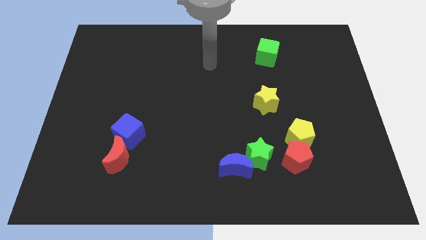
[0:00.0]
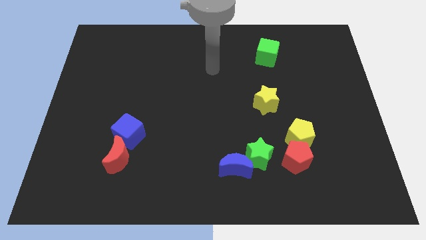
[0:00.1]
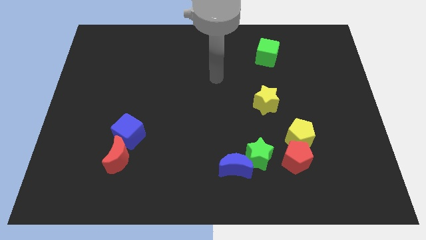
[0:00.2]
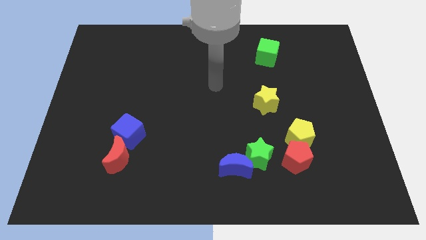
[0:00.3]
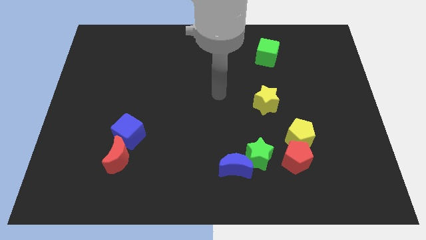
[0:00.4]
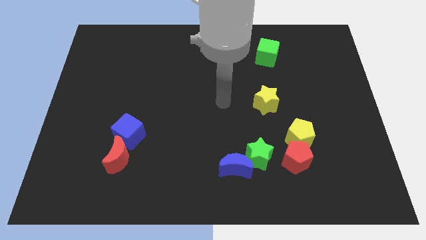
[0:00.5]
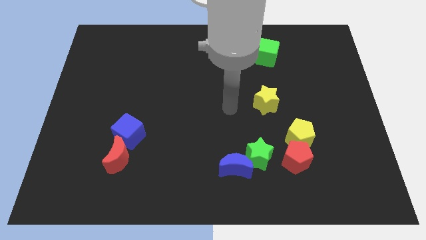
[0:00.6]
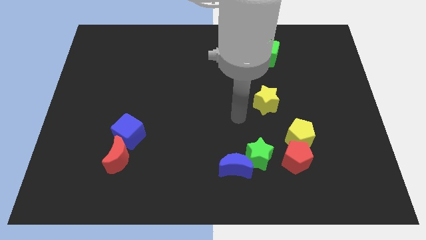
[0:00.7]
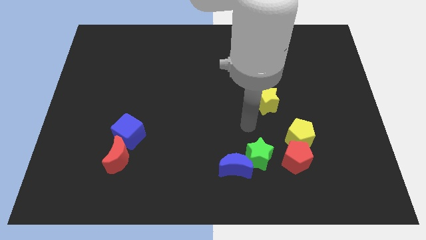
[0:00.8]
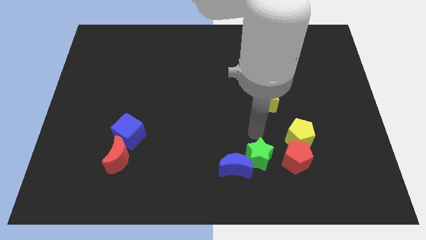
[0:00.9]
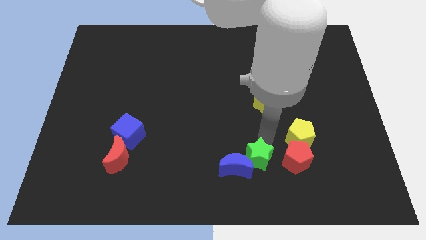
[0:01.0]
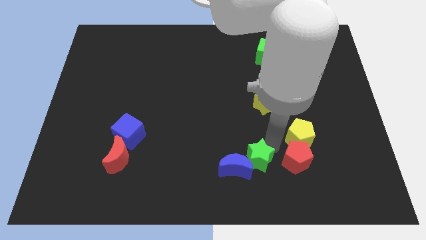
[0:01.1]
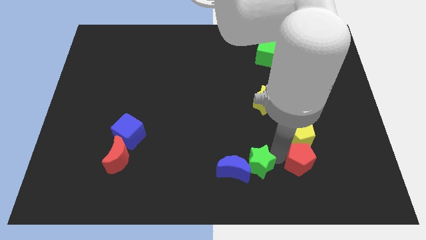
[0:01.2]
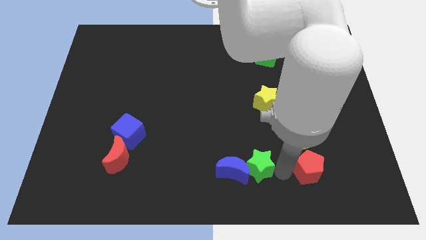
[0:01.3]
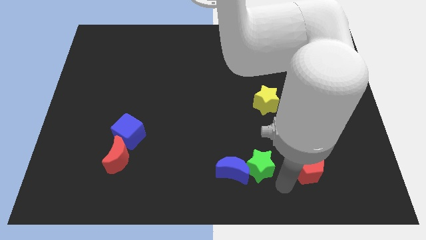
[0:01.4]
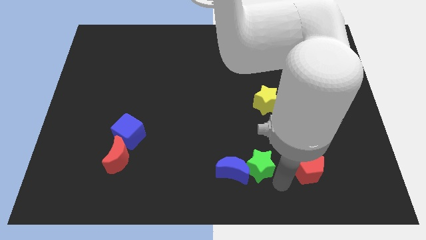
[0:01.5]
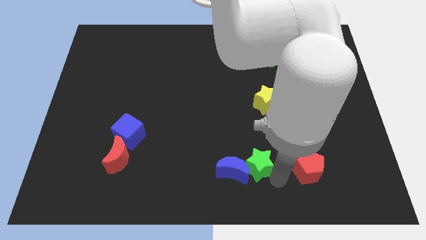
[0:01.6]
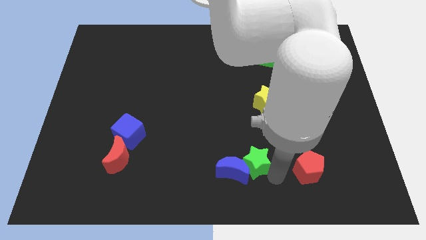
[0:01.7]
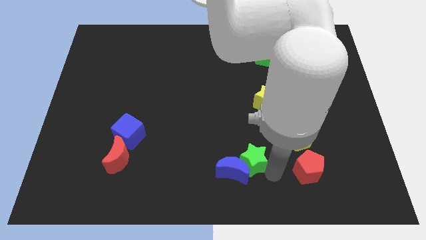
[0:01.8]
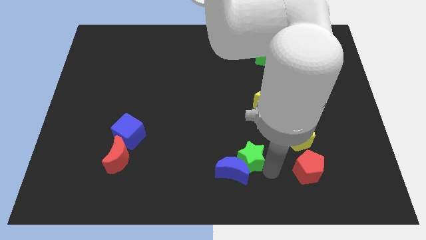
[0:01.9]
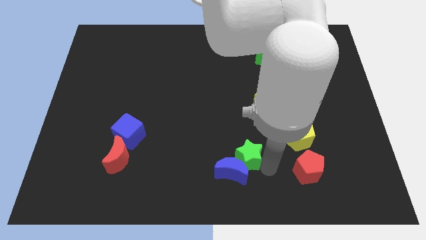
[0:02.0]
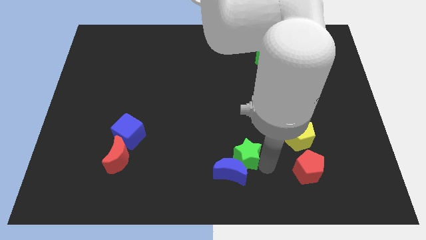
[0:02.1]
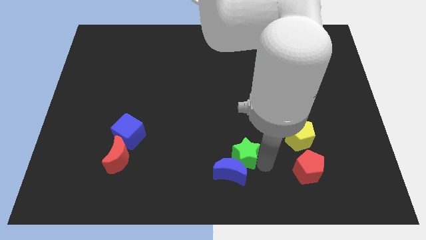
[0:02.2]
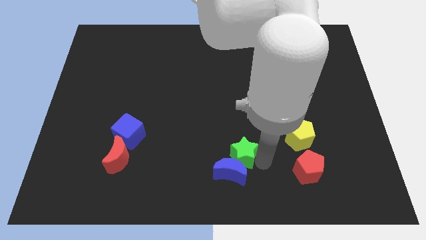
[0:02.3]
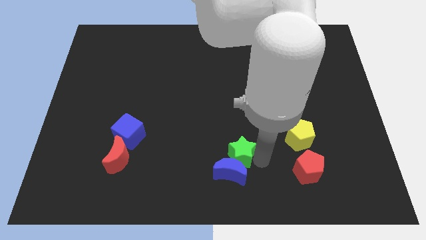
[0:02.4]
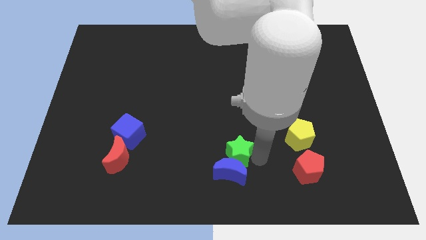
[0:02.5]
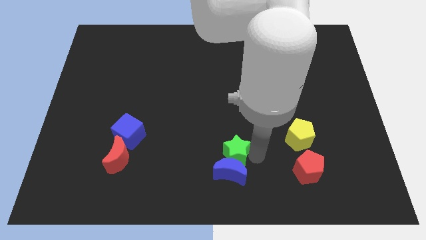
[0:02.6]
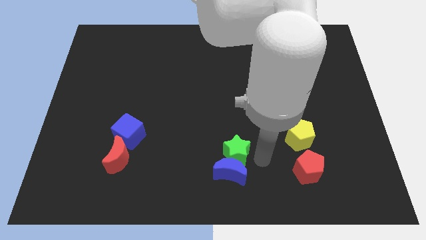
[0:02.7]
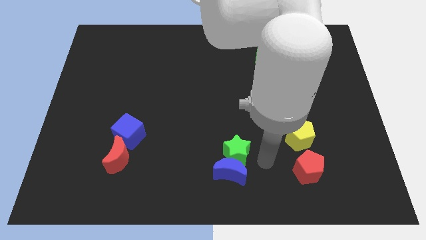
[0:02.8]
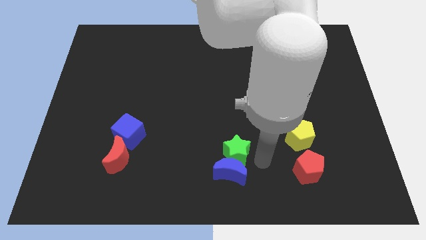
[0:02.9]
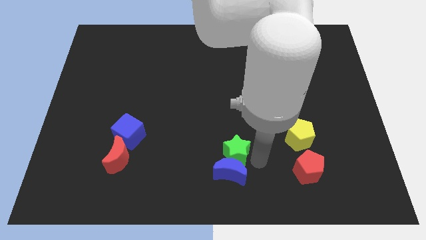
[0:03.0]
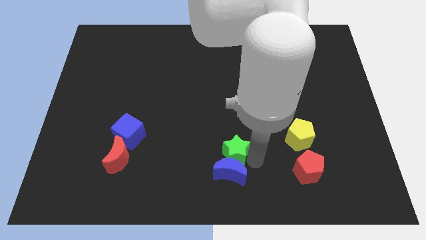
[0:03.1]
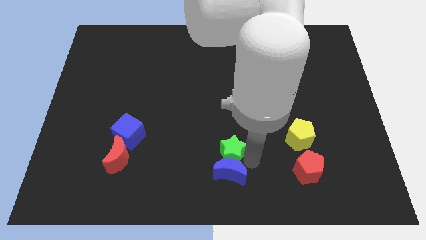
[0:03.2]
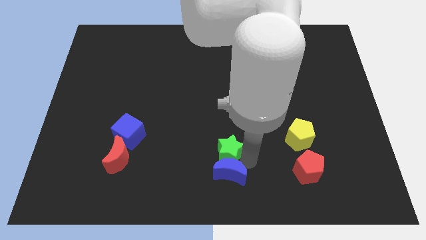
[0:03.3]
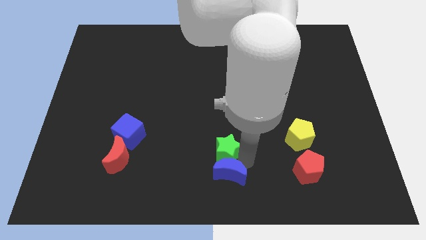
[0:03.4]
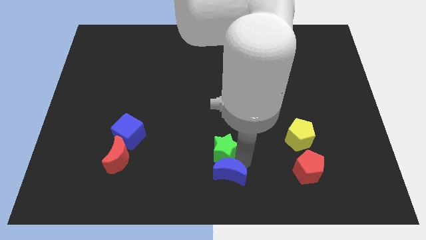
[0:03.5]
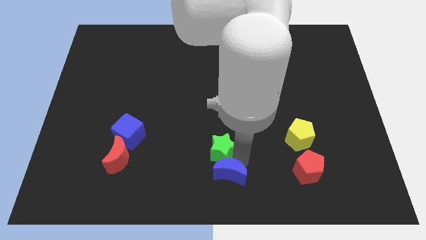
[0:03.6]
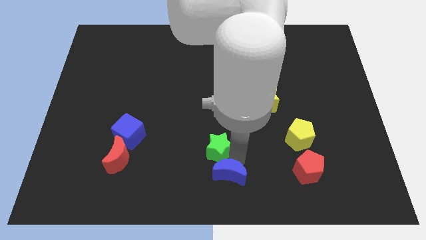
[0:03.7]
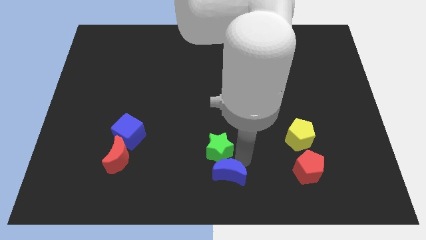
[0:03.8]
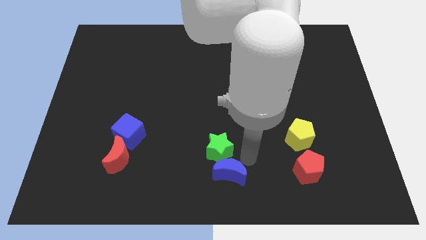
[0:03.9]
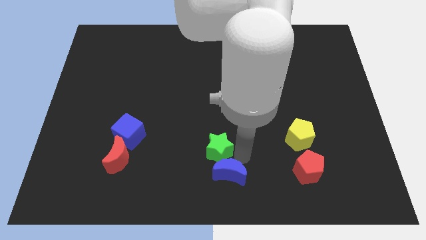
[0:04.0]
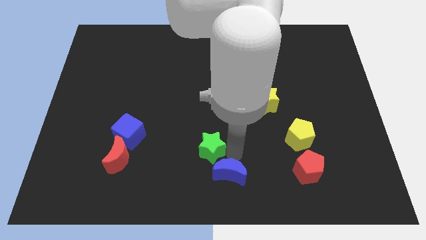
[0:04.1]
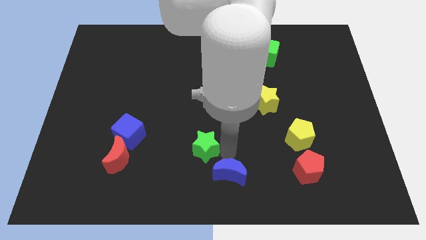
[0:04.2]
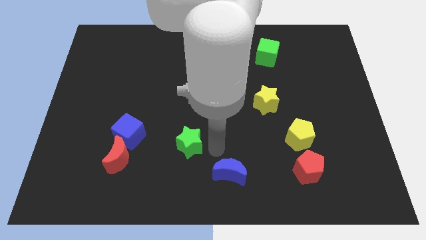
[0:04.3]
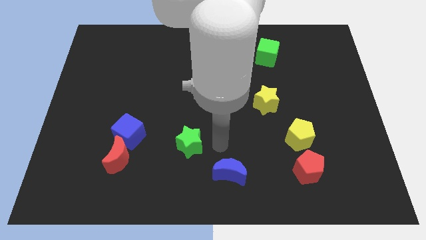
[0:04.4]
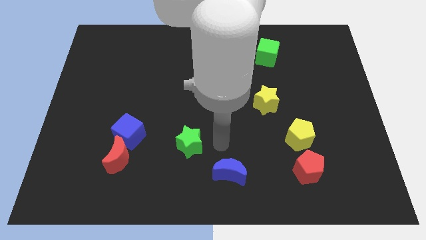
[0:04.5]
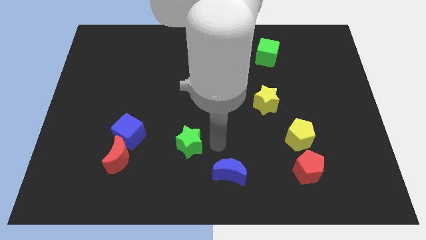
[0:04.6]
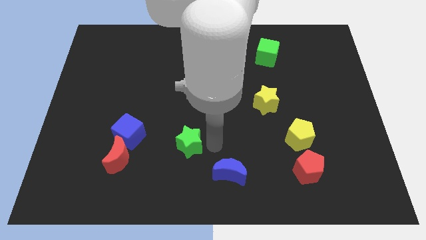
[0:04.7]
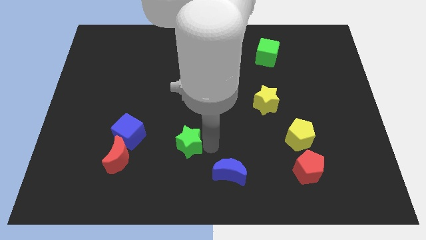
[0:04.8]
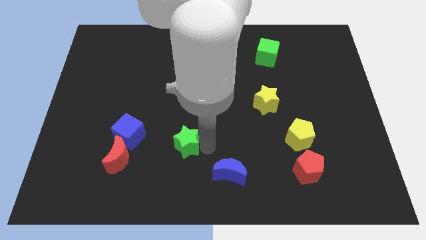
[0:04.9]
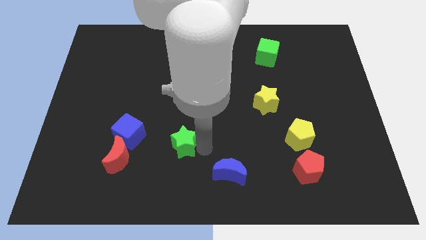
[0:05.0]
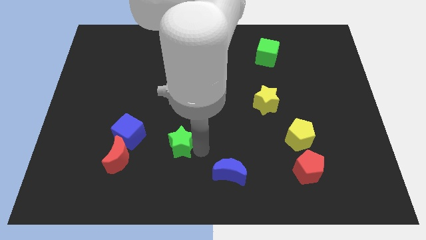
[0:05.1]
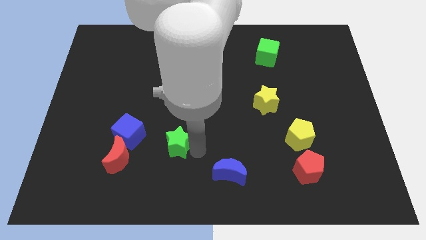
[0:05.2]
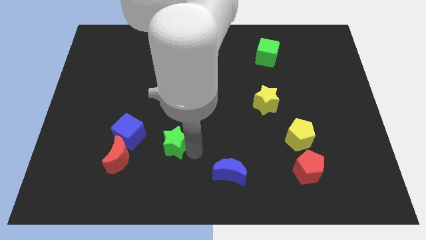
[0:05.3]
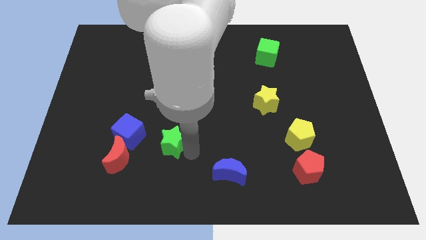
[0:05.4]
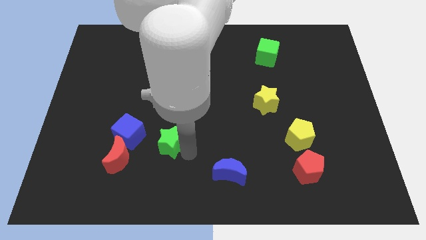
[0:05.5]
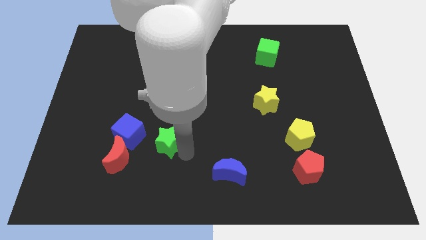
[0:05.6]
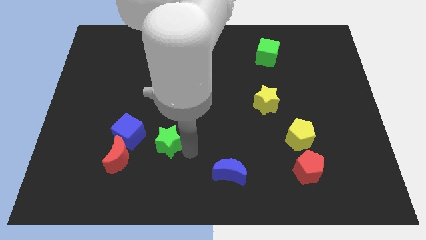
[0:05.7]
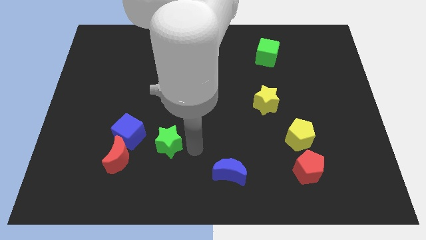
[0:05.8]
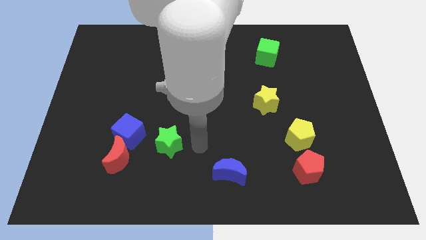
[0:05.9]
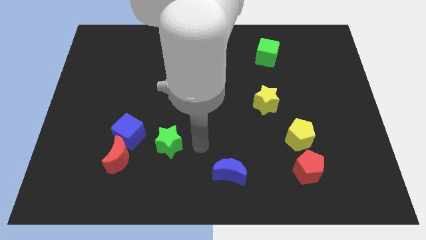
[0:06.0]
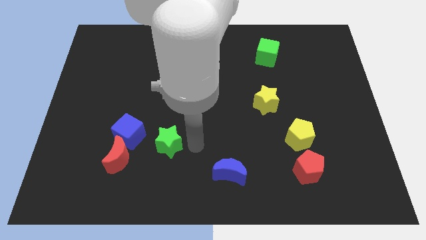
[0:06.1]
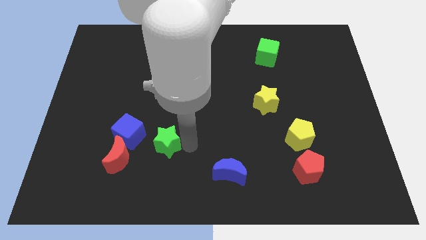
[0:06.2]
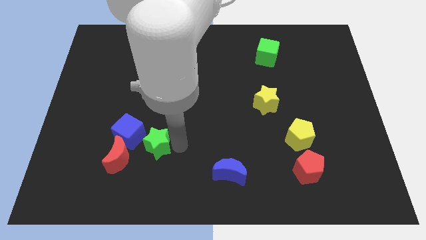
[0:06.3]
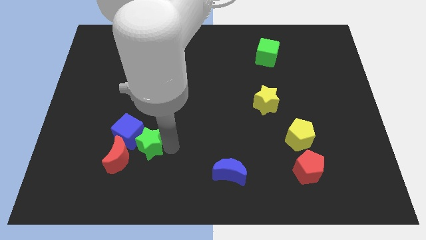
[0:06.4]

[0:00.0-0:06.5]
put the green star towards the blue cube
